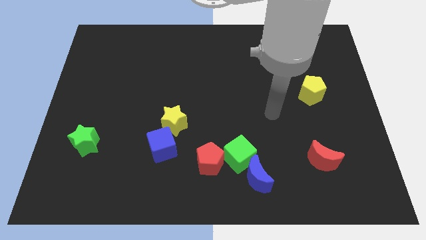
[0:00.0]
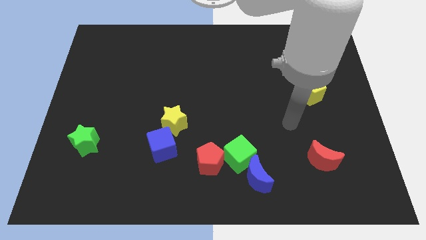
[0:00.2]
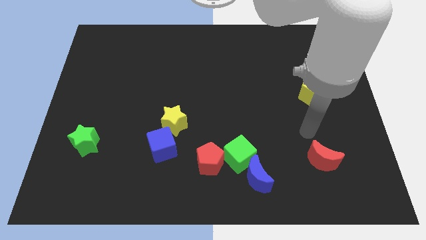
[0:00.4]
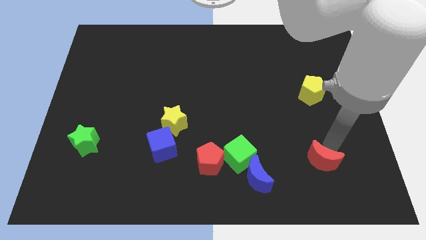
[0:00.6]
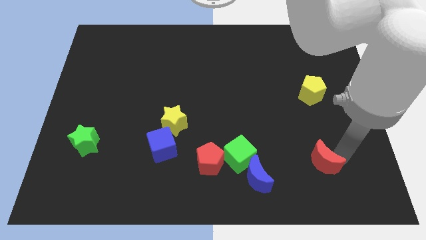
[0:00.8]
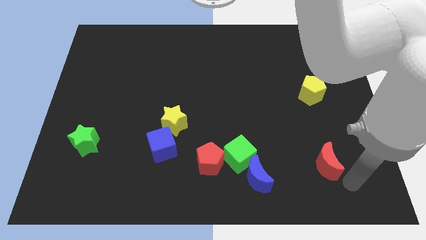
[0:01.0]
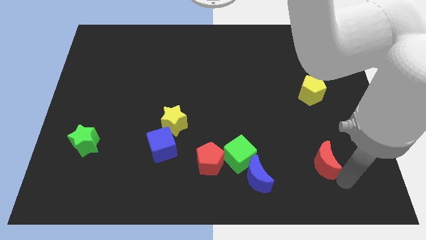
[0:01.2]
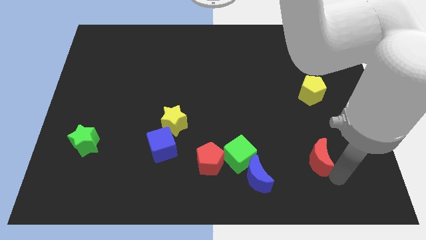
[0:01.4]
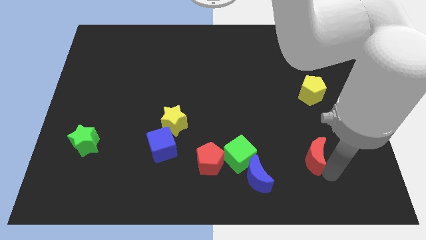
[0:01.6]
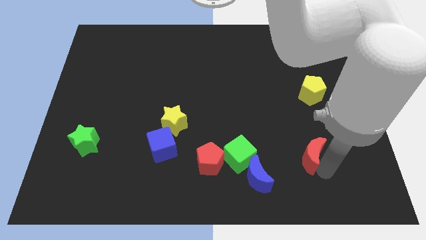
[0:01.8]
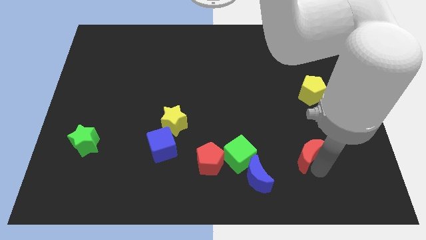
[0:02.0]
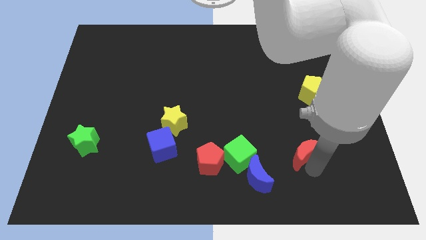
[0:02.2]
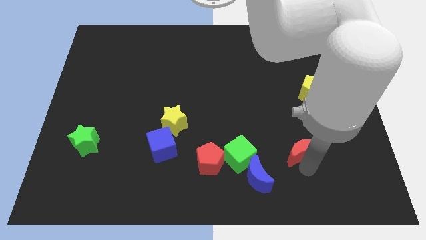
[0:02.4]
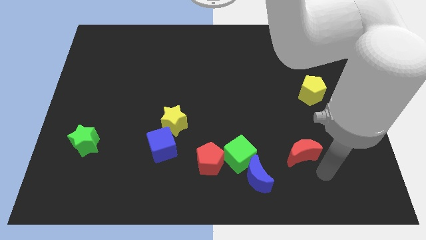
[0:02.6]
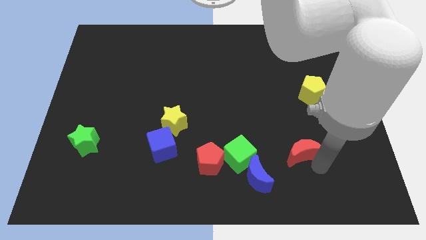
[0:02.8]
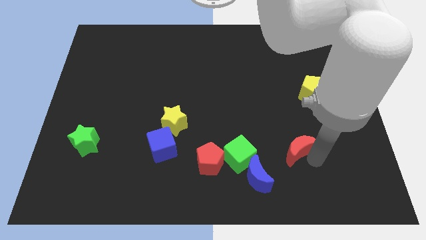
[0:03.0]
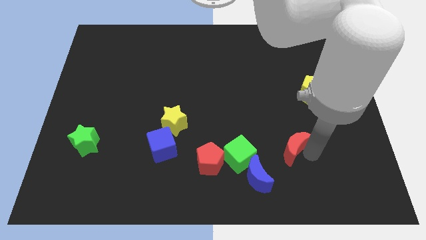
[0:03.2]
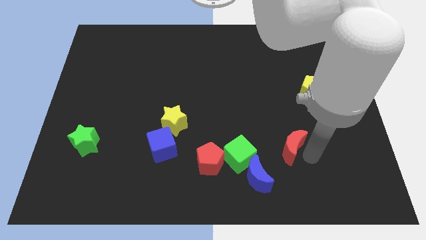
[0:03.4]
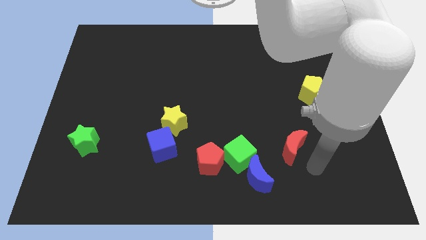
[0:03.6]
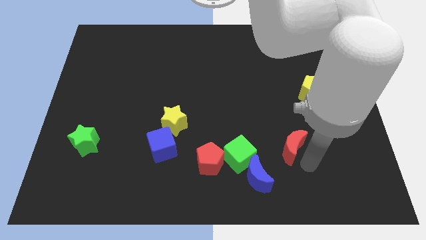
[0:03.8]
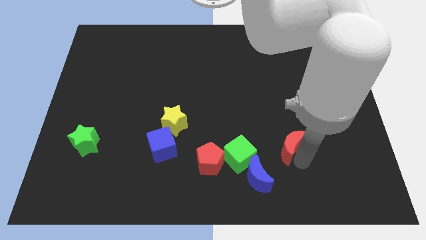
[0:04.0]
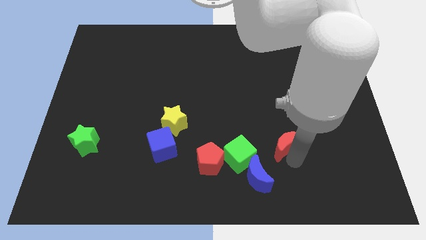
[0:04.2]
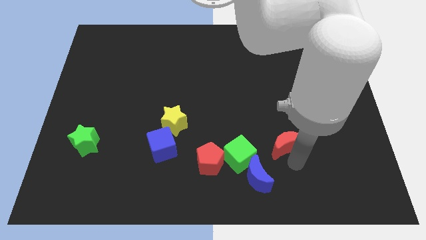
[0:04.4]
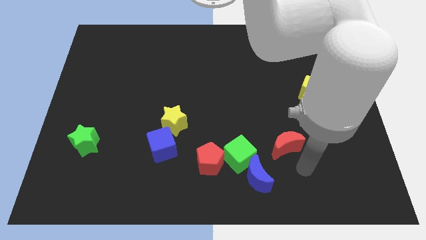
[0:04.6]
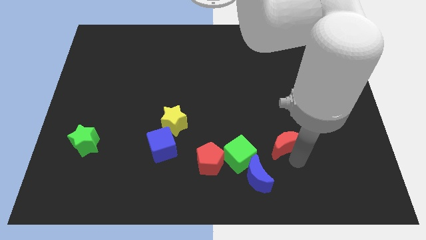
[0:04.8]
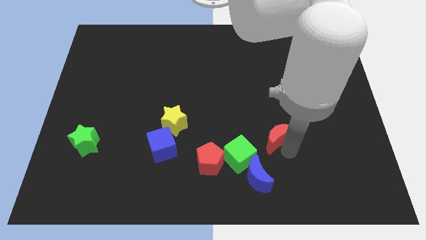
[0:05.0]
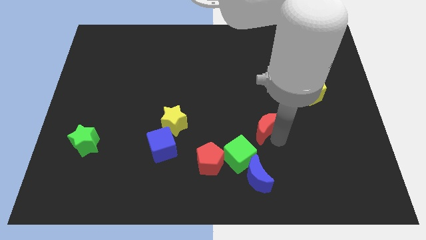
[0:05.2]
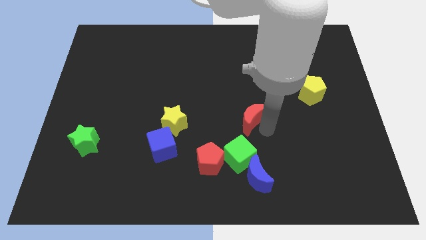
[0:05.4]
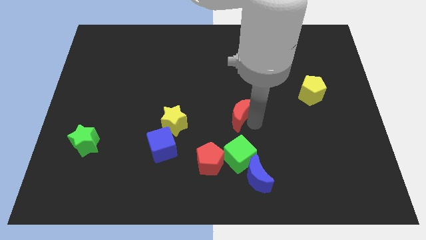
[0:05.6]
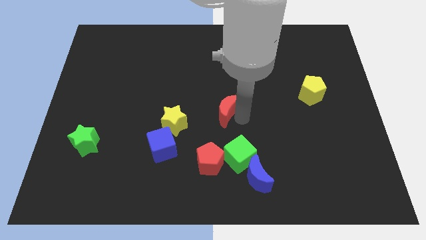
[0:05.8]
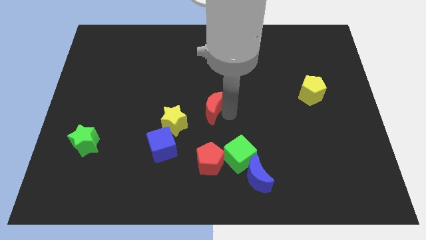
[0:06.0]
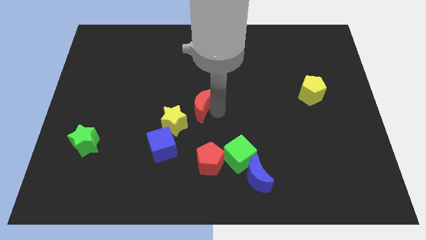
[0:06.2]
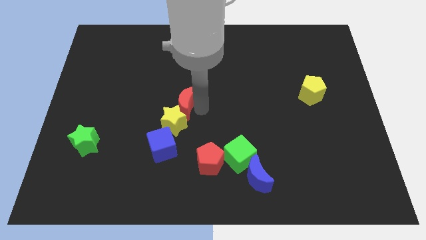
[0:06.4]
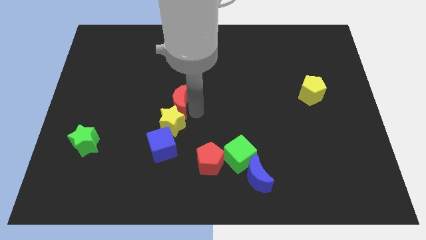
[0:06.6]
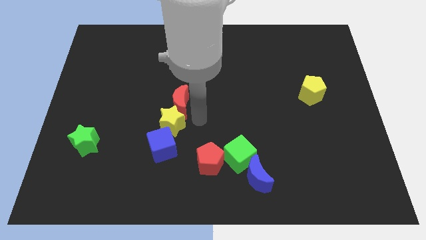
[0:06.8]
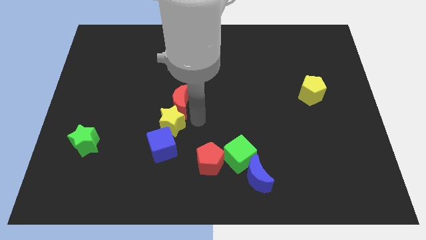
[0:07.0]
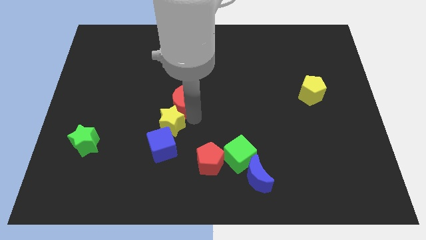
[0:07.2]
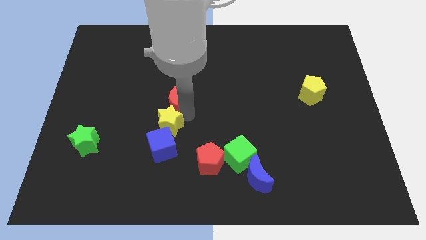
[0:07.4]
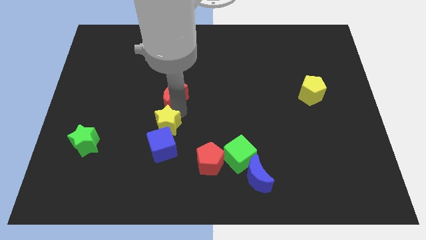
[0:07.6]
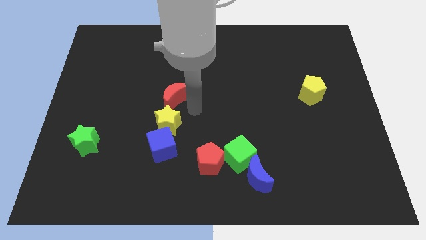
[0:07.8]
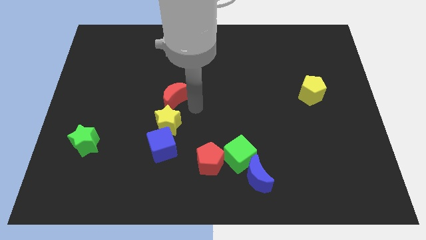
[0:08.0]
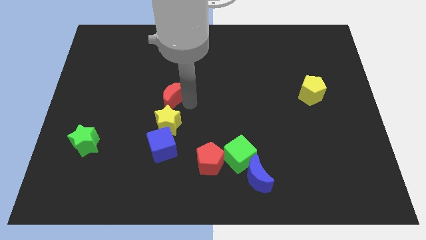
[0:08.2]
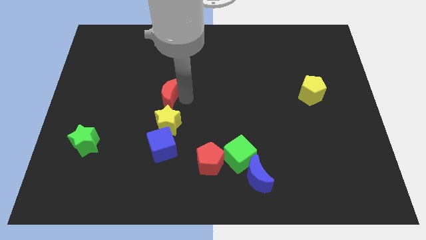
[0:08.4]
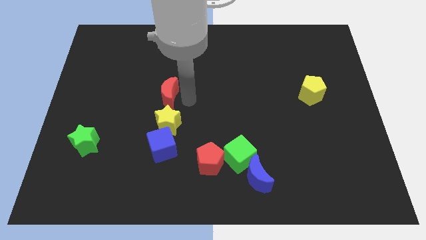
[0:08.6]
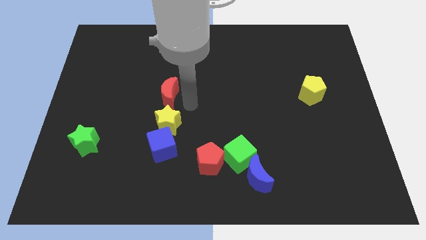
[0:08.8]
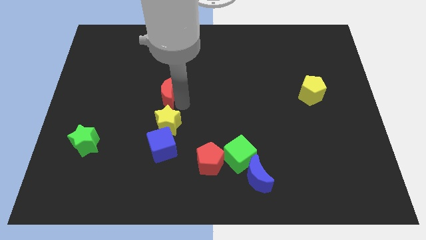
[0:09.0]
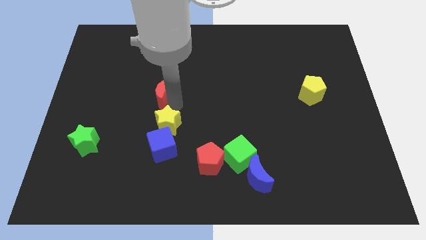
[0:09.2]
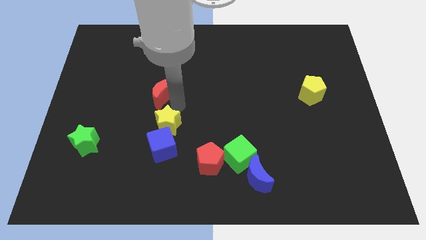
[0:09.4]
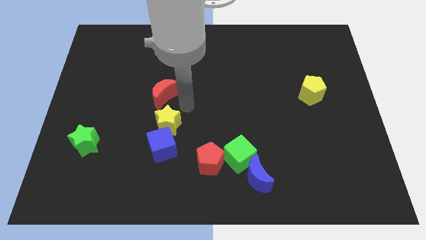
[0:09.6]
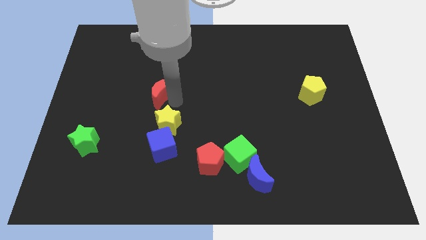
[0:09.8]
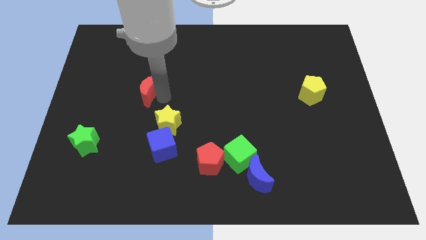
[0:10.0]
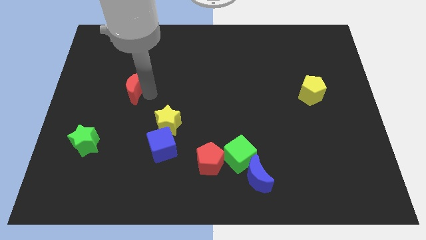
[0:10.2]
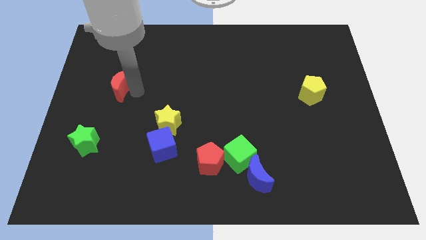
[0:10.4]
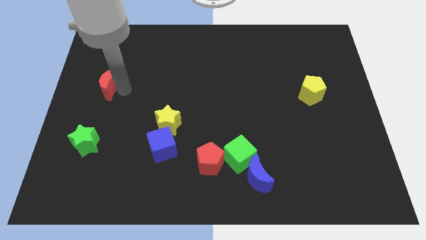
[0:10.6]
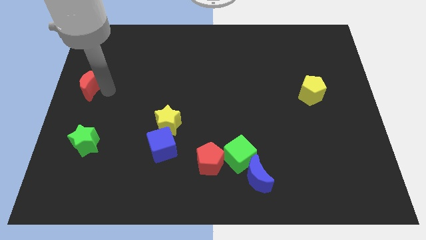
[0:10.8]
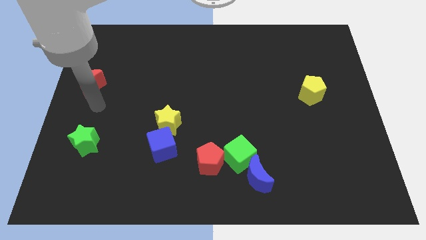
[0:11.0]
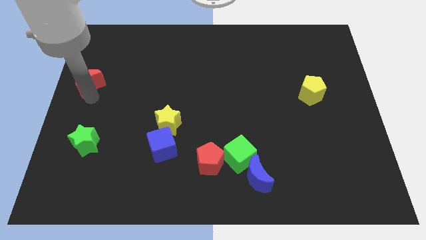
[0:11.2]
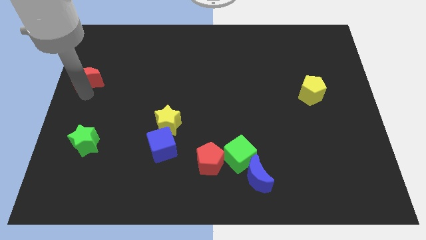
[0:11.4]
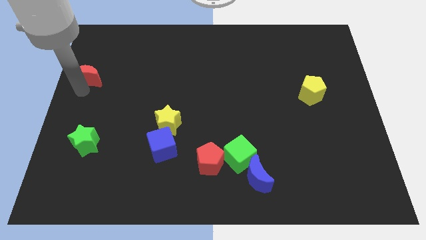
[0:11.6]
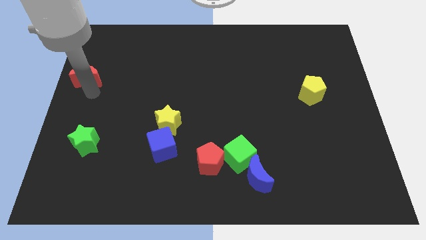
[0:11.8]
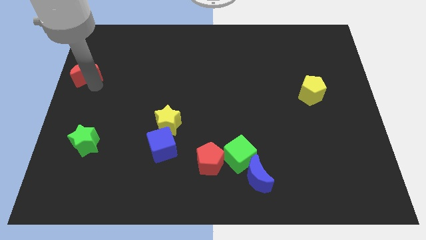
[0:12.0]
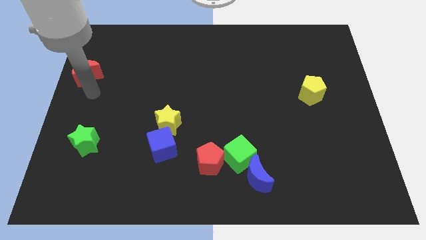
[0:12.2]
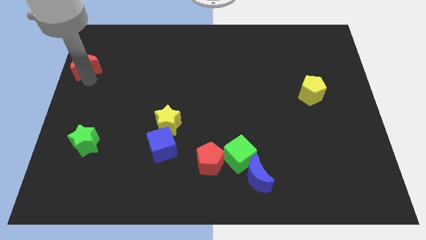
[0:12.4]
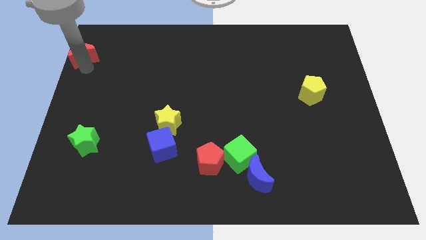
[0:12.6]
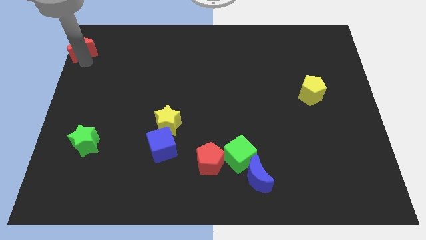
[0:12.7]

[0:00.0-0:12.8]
put the red moon to the top left of the board
